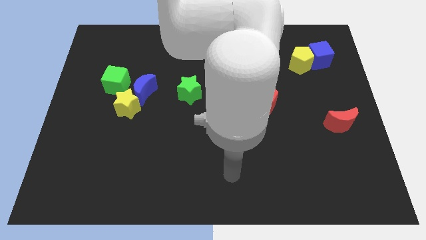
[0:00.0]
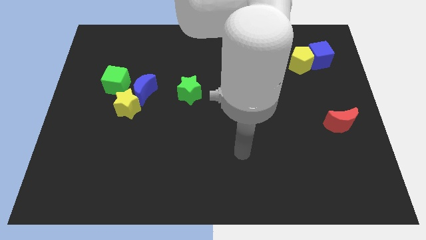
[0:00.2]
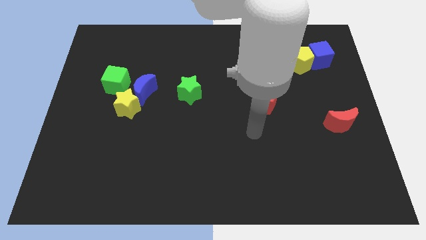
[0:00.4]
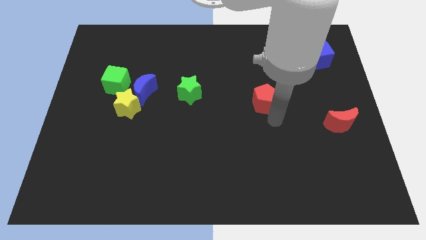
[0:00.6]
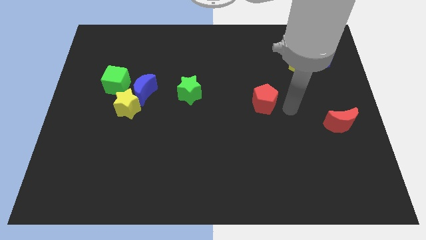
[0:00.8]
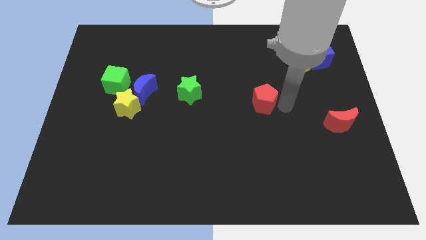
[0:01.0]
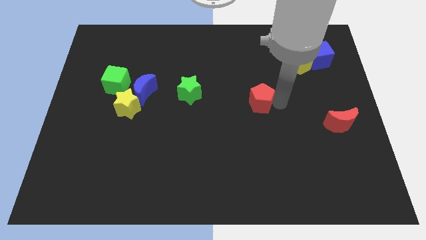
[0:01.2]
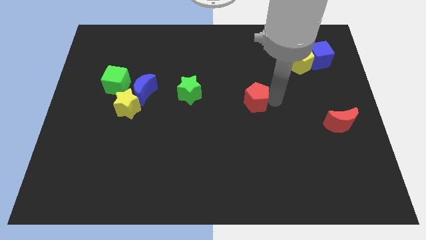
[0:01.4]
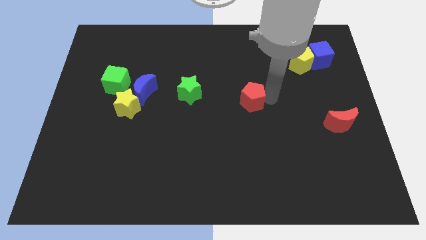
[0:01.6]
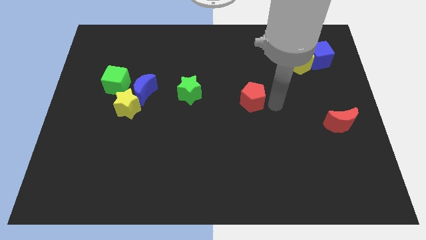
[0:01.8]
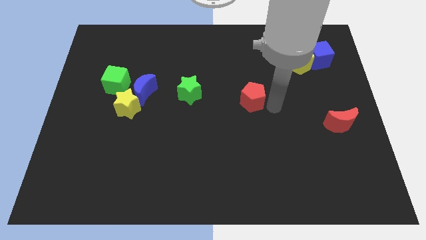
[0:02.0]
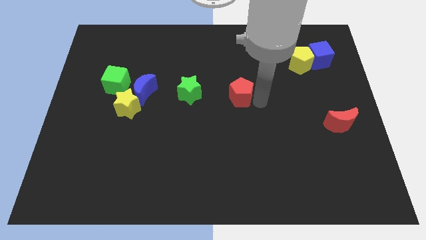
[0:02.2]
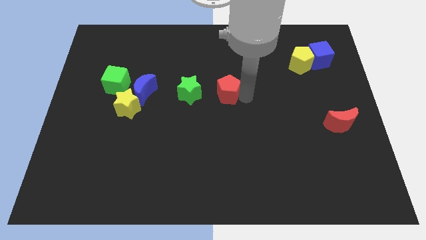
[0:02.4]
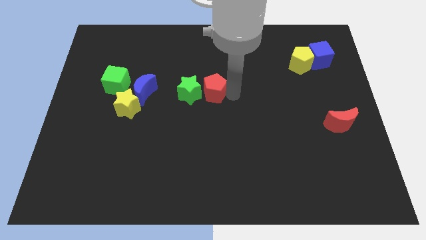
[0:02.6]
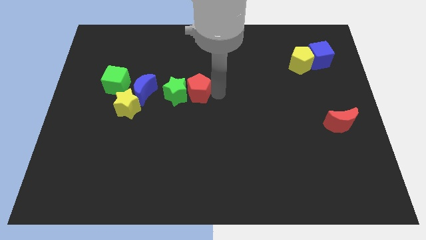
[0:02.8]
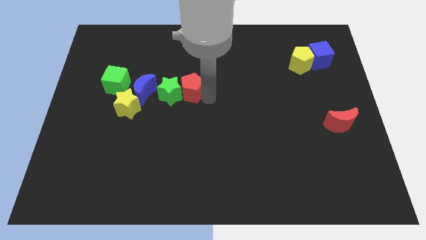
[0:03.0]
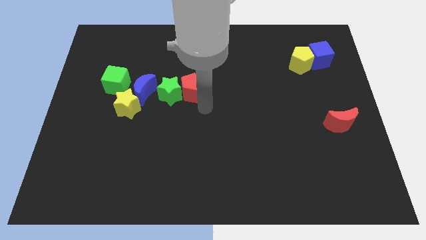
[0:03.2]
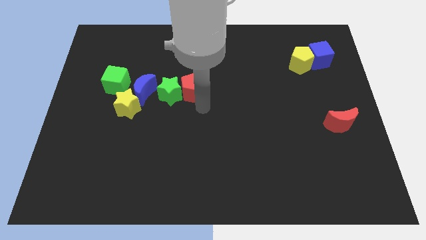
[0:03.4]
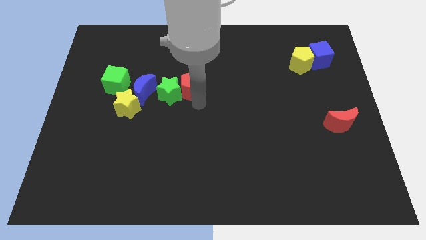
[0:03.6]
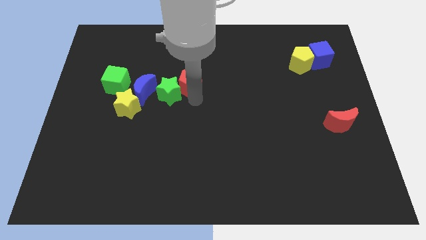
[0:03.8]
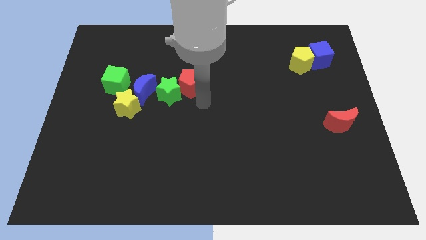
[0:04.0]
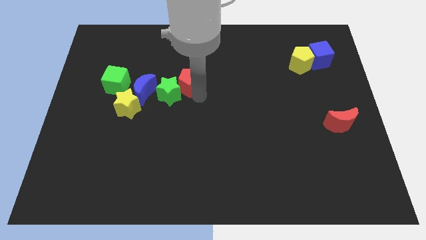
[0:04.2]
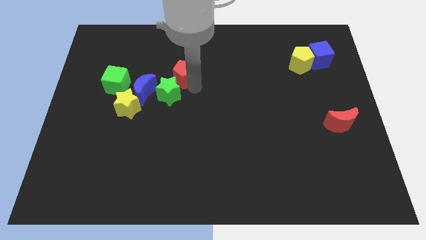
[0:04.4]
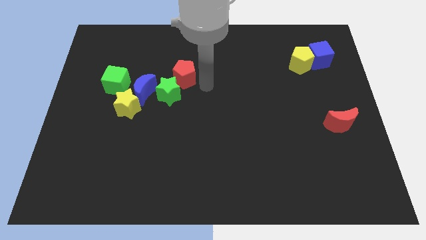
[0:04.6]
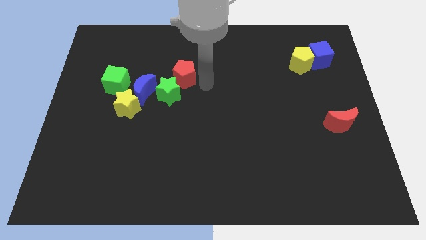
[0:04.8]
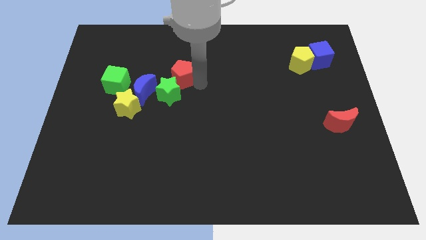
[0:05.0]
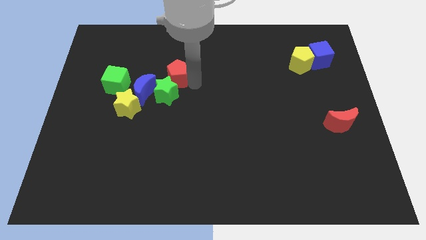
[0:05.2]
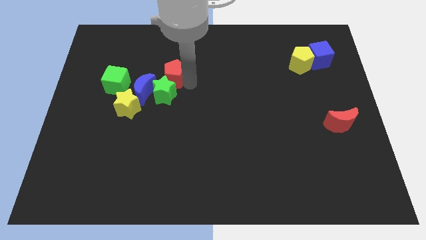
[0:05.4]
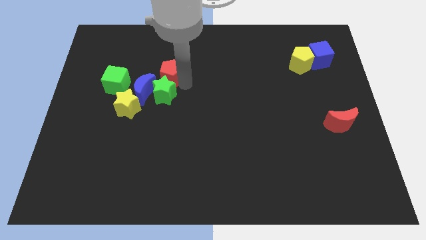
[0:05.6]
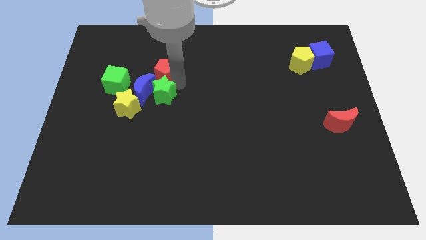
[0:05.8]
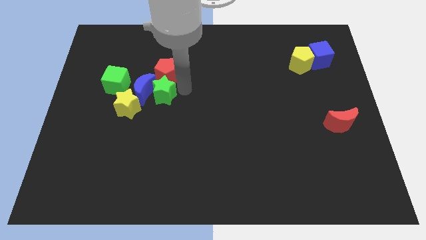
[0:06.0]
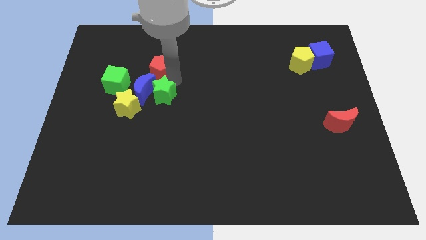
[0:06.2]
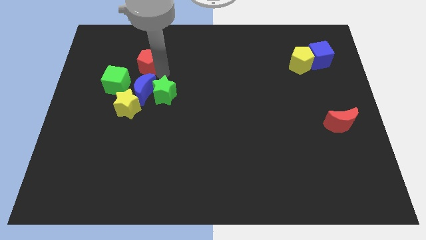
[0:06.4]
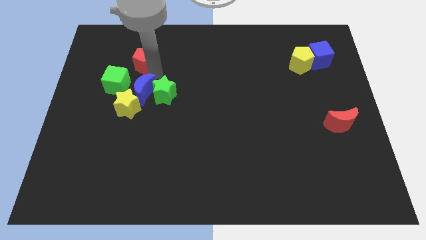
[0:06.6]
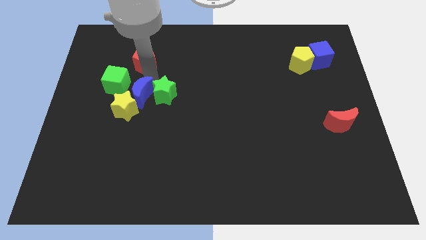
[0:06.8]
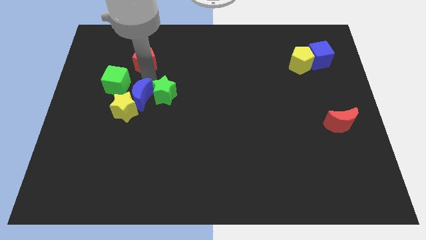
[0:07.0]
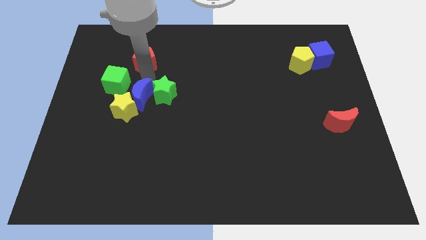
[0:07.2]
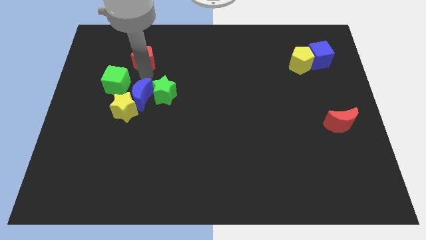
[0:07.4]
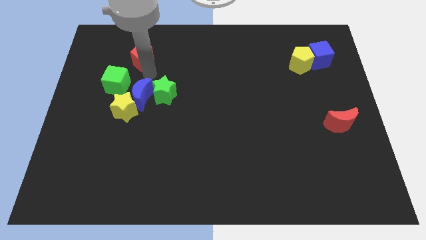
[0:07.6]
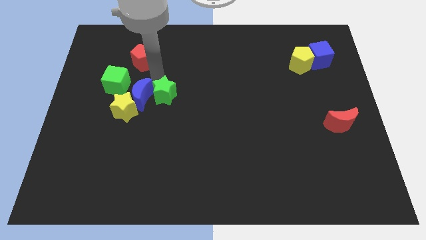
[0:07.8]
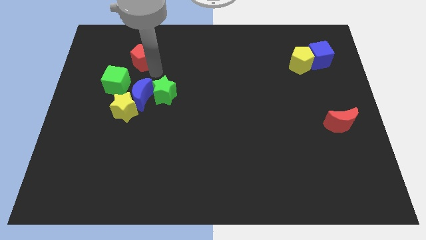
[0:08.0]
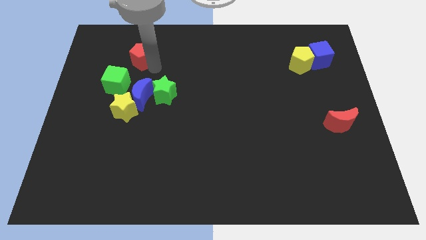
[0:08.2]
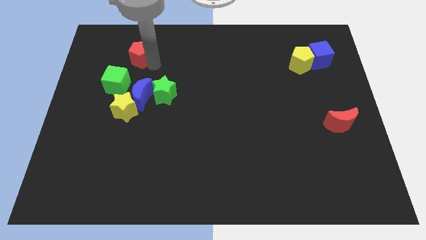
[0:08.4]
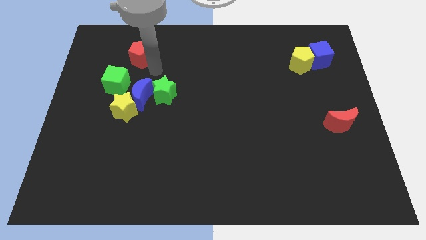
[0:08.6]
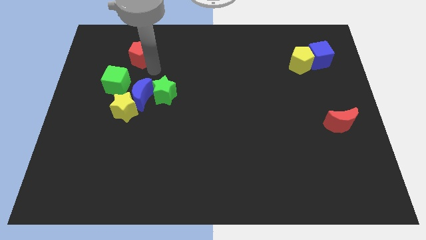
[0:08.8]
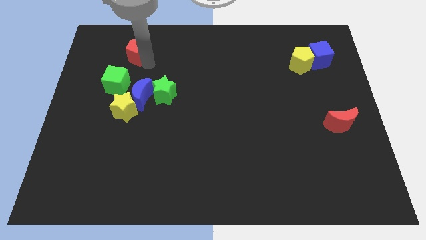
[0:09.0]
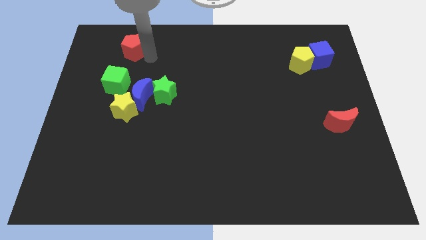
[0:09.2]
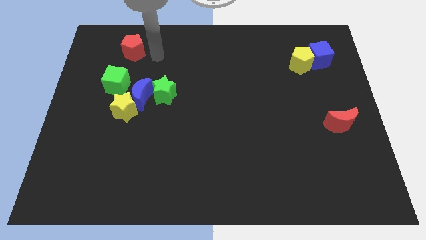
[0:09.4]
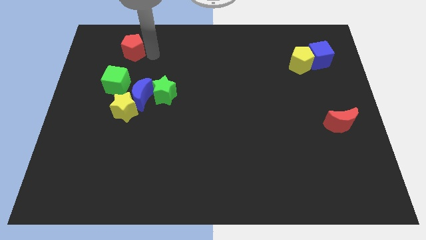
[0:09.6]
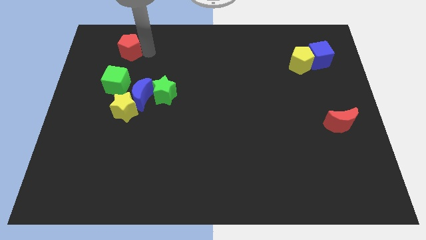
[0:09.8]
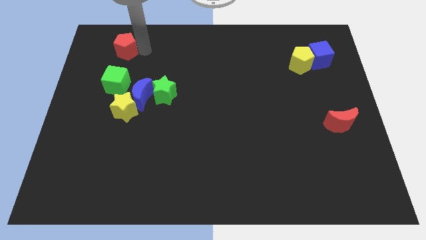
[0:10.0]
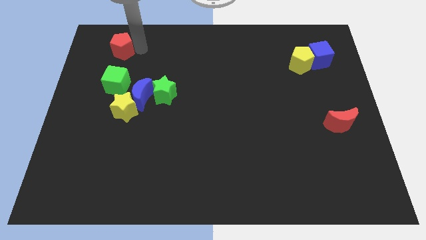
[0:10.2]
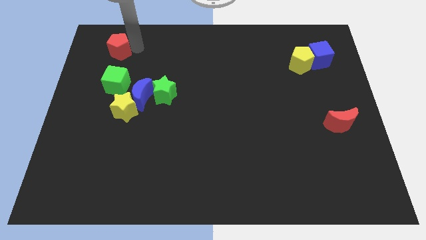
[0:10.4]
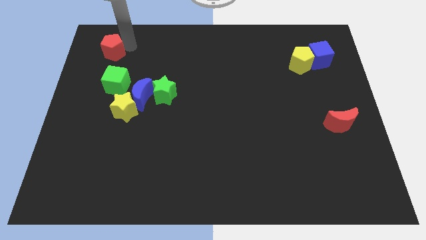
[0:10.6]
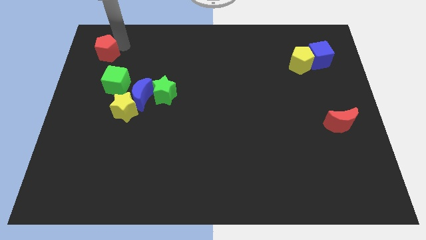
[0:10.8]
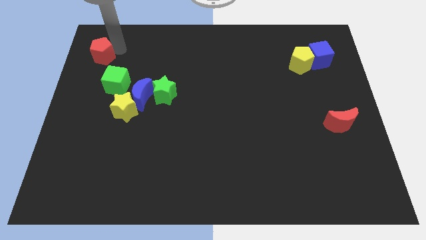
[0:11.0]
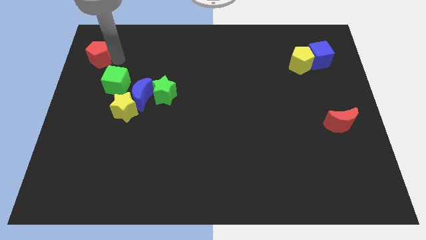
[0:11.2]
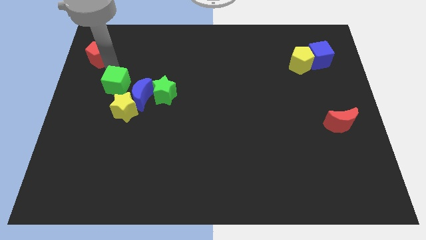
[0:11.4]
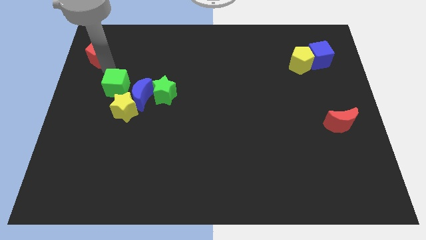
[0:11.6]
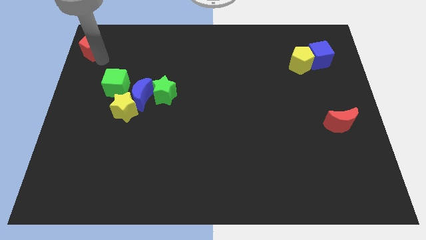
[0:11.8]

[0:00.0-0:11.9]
push the red pentagon to the top left

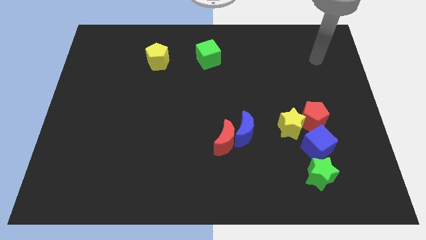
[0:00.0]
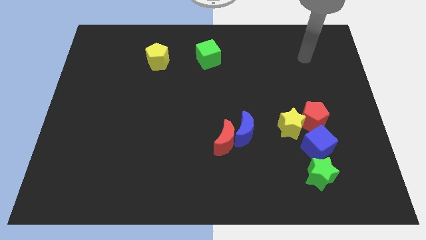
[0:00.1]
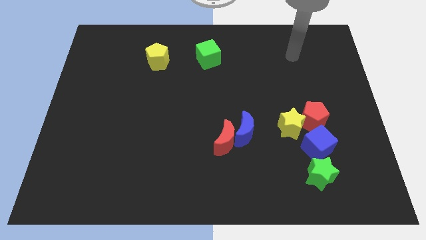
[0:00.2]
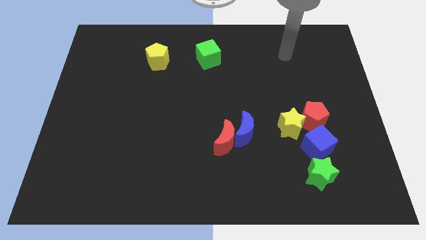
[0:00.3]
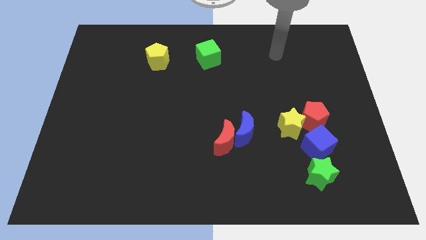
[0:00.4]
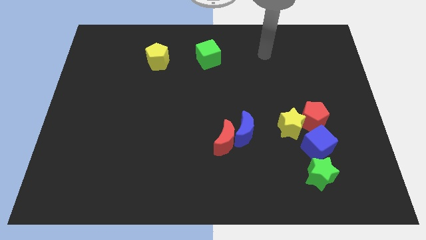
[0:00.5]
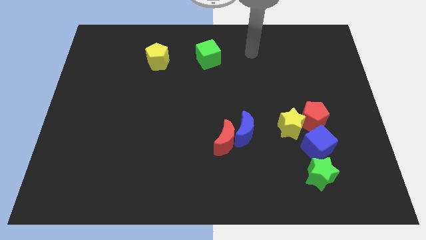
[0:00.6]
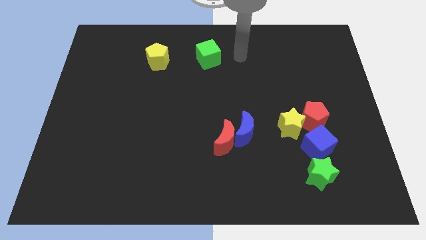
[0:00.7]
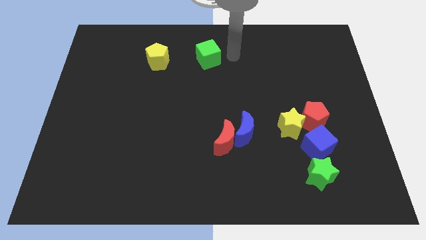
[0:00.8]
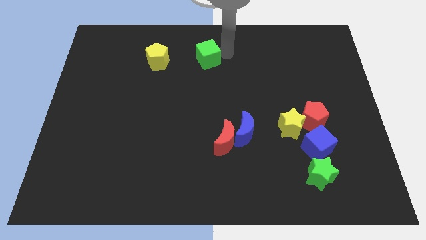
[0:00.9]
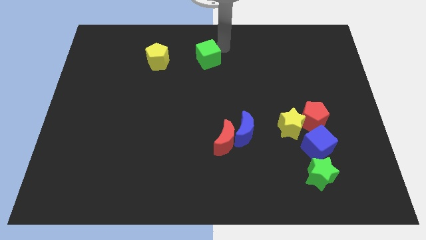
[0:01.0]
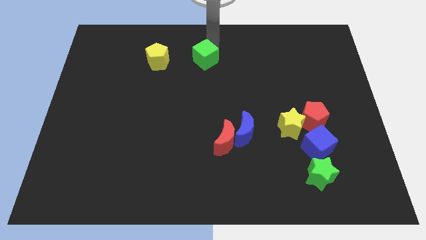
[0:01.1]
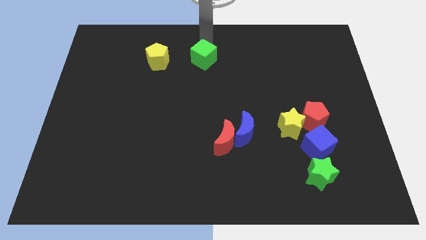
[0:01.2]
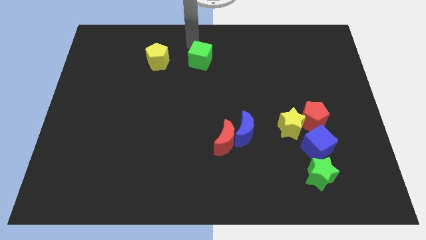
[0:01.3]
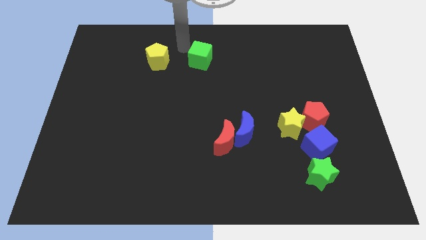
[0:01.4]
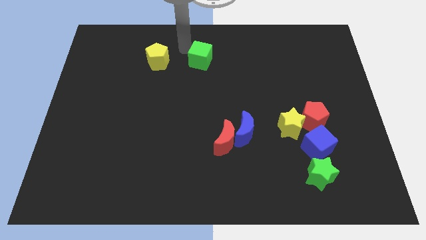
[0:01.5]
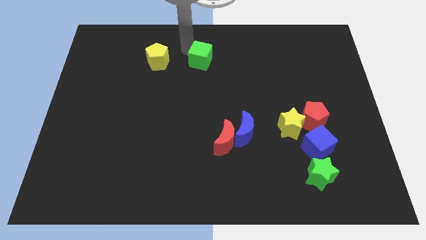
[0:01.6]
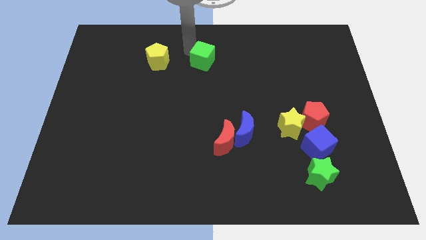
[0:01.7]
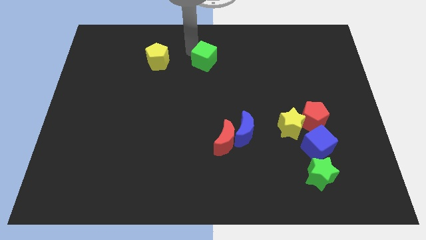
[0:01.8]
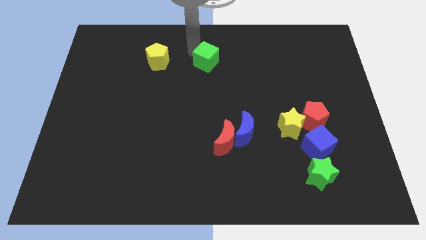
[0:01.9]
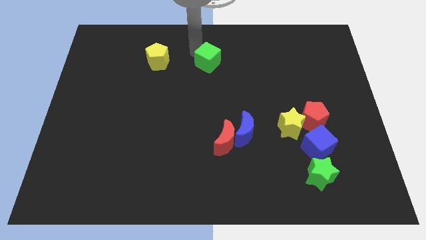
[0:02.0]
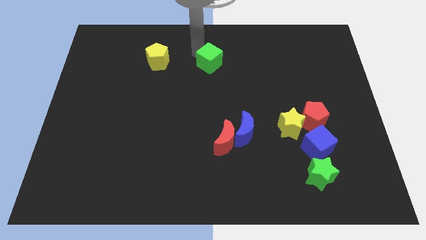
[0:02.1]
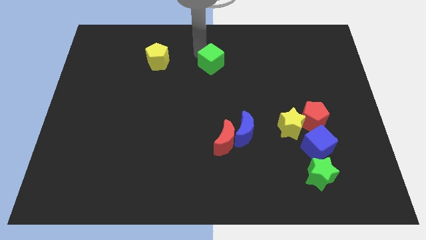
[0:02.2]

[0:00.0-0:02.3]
slide the green cube to the middle of the board
